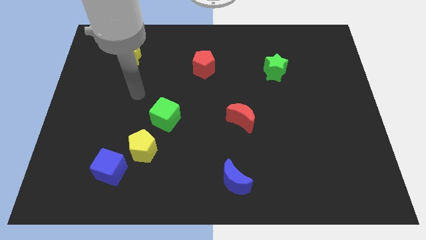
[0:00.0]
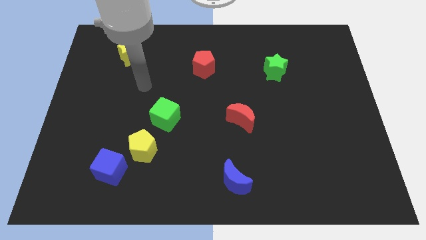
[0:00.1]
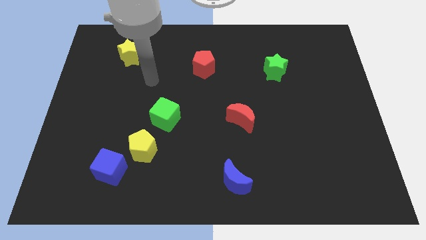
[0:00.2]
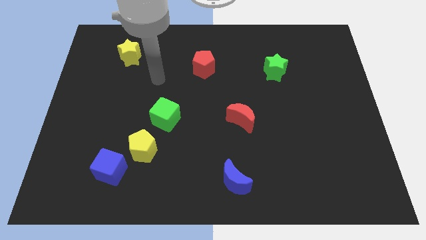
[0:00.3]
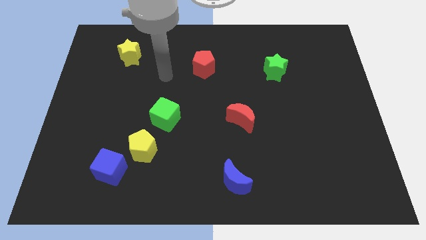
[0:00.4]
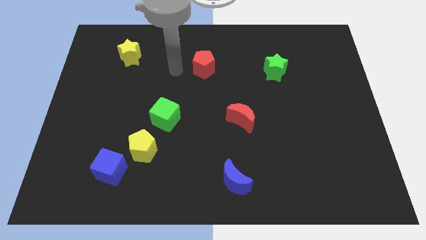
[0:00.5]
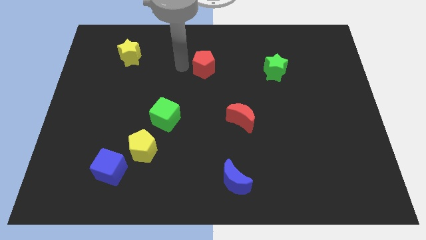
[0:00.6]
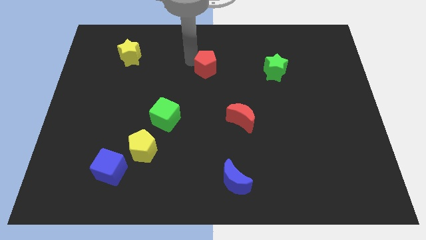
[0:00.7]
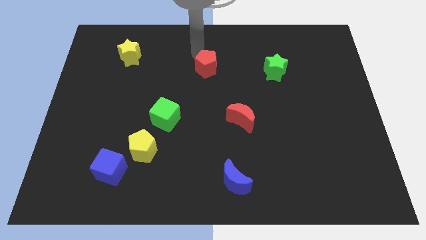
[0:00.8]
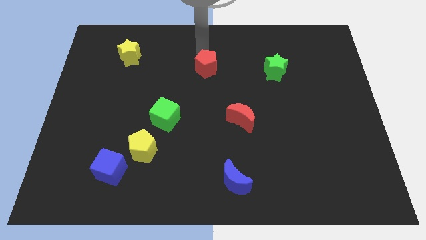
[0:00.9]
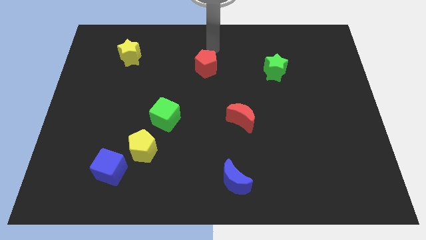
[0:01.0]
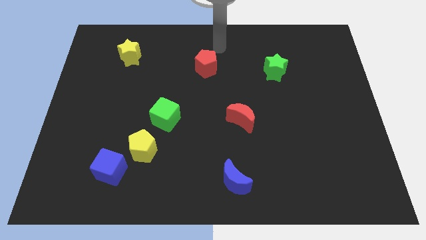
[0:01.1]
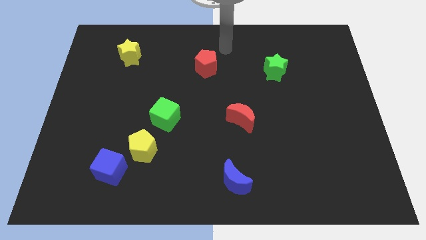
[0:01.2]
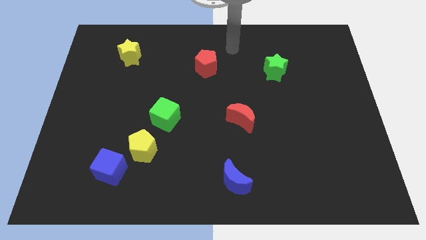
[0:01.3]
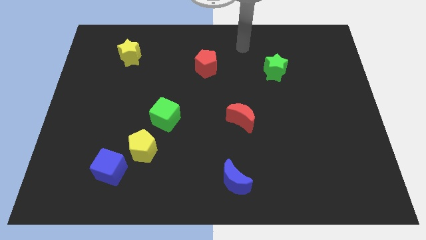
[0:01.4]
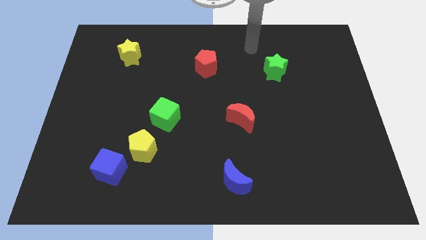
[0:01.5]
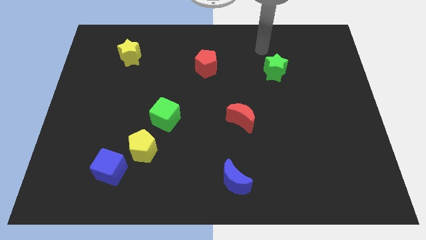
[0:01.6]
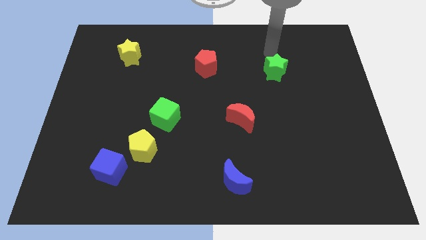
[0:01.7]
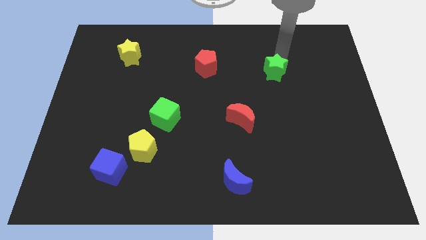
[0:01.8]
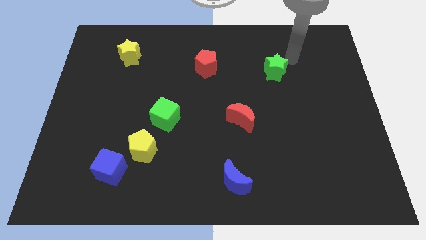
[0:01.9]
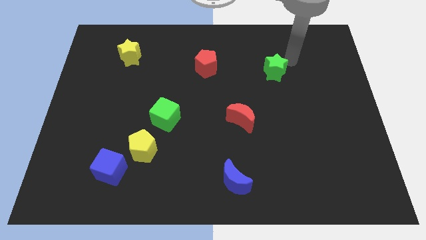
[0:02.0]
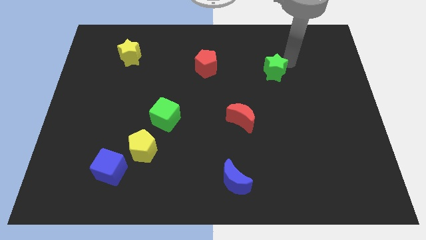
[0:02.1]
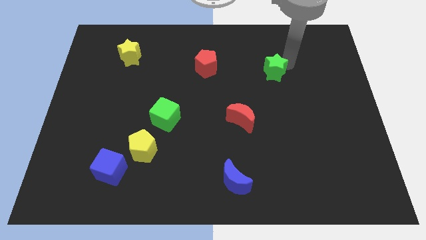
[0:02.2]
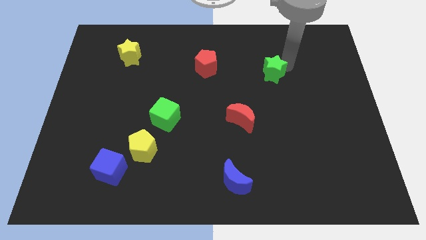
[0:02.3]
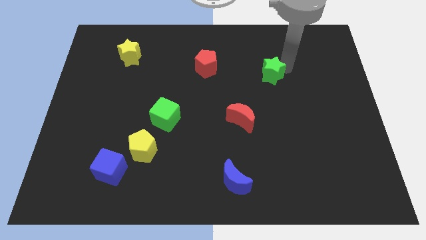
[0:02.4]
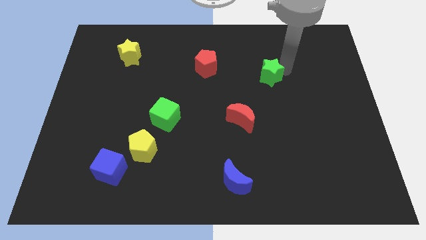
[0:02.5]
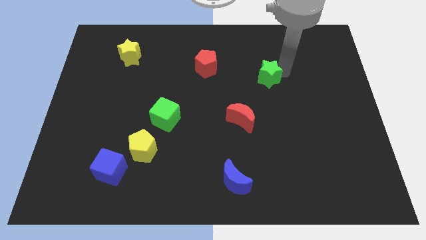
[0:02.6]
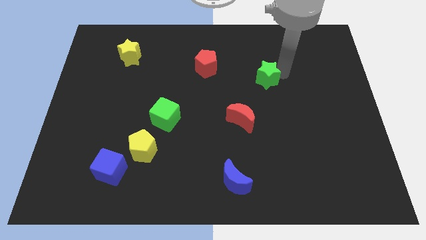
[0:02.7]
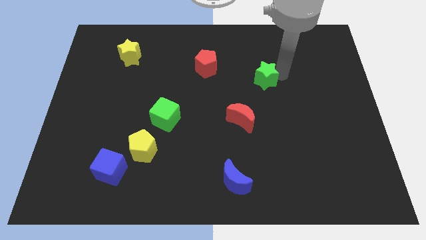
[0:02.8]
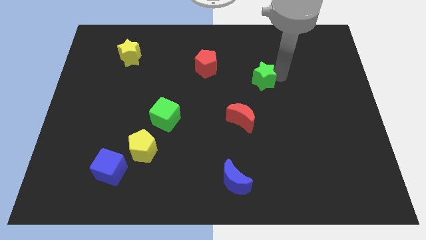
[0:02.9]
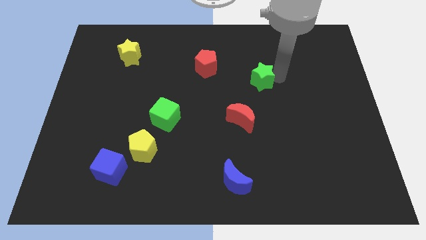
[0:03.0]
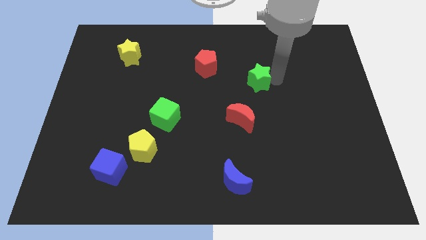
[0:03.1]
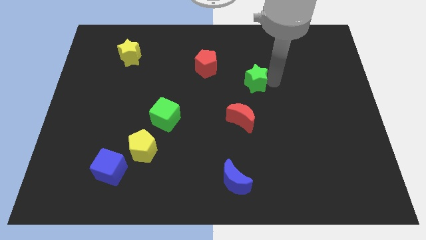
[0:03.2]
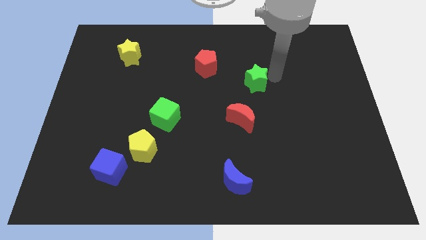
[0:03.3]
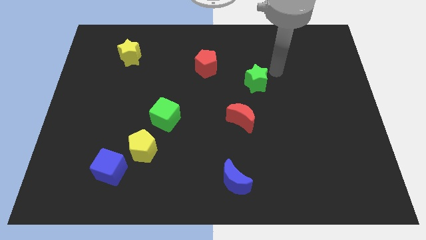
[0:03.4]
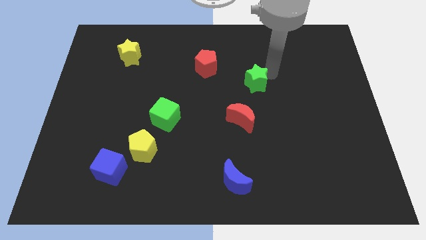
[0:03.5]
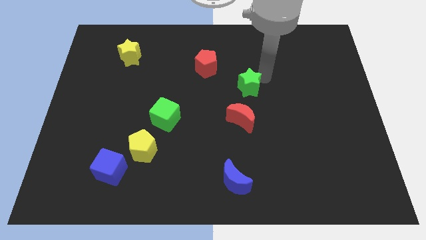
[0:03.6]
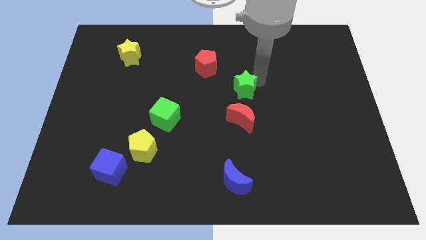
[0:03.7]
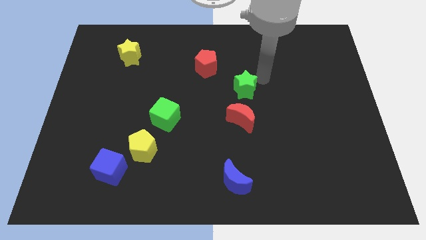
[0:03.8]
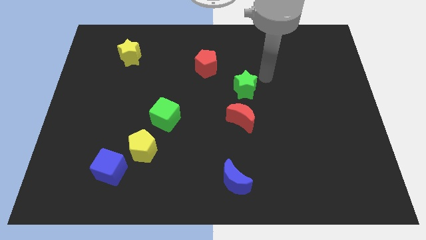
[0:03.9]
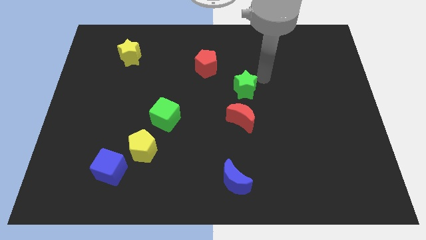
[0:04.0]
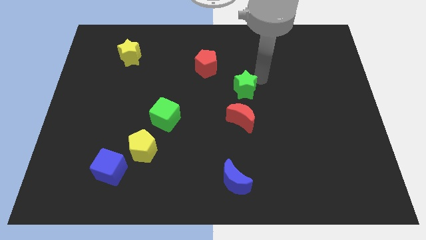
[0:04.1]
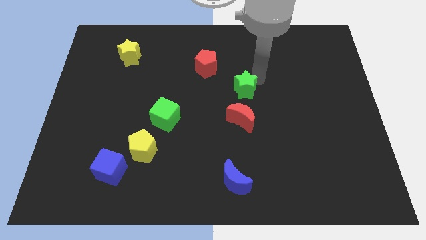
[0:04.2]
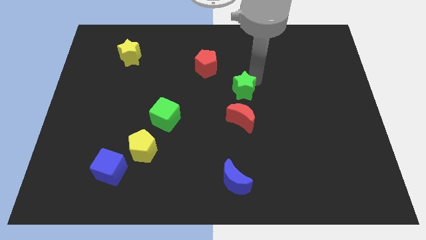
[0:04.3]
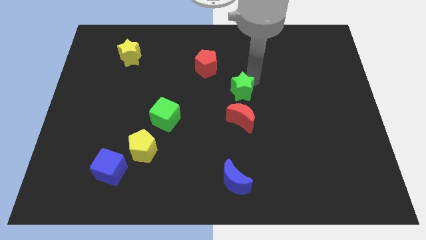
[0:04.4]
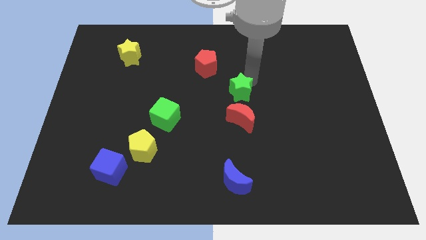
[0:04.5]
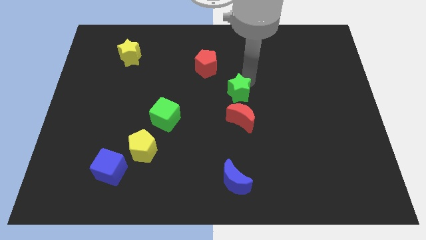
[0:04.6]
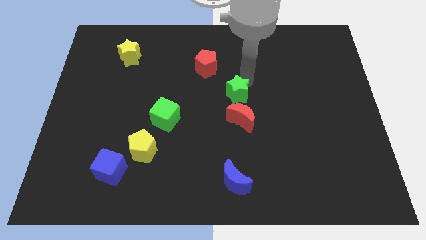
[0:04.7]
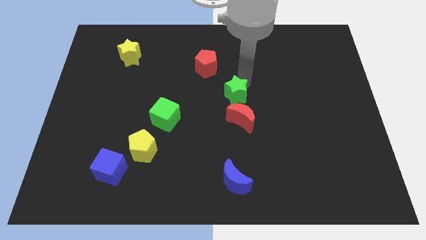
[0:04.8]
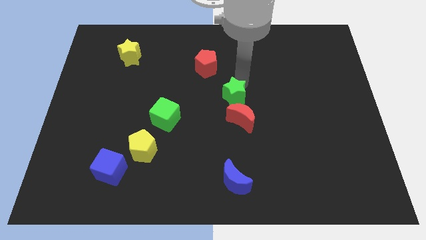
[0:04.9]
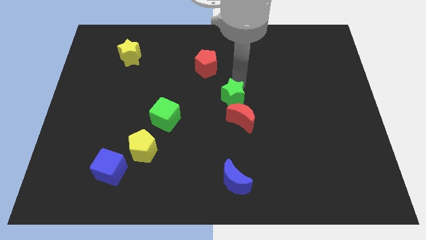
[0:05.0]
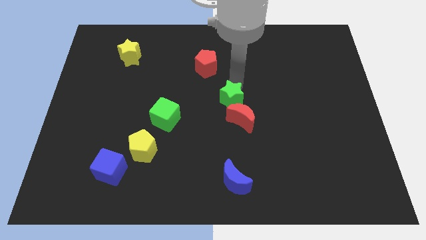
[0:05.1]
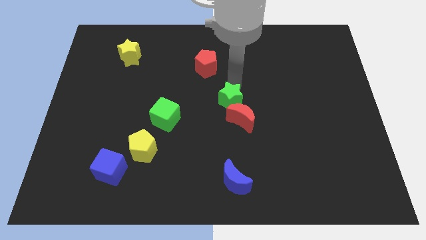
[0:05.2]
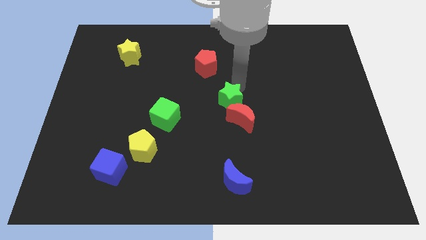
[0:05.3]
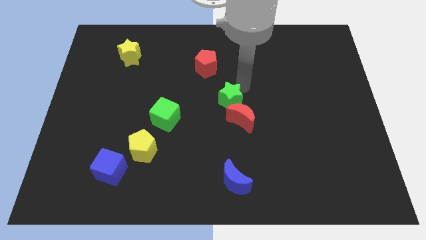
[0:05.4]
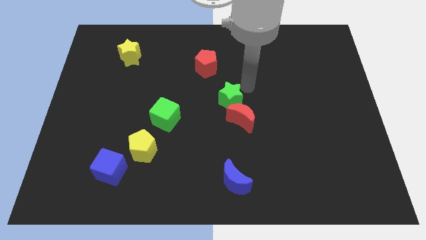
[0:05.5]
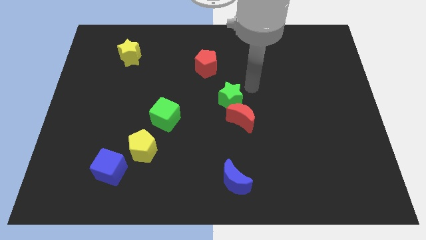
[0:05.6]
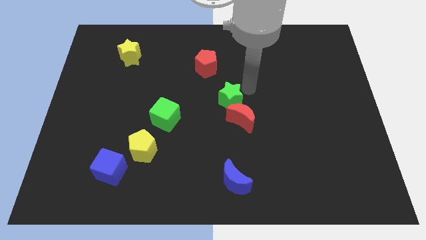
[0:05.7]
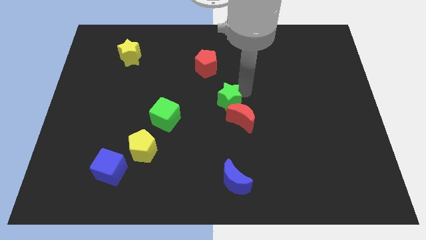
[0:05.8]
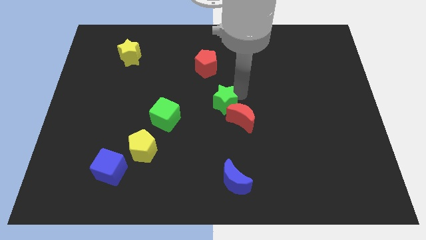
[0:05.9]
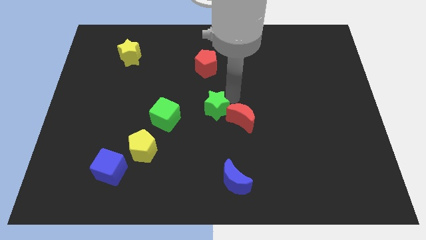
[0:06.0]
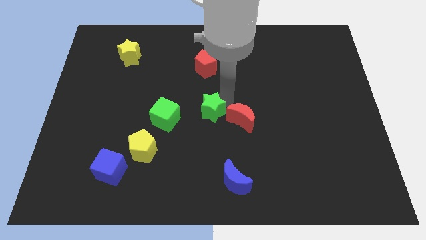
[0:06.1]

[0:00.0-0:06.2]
move the green star downwards and left

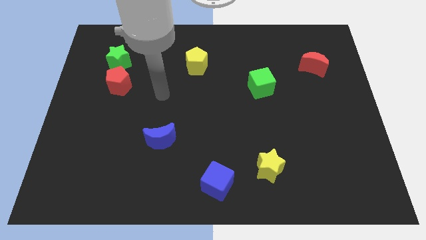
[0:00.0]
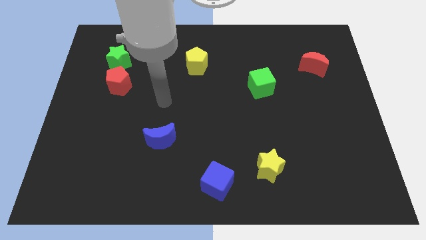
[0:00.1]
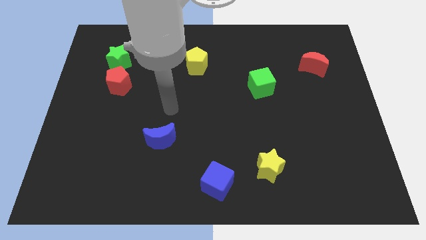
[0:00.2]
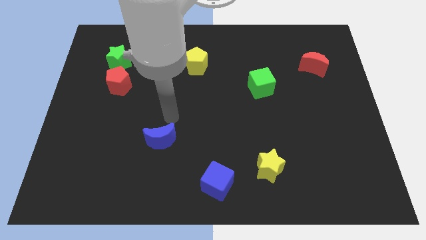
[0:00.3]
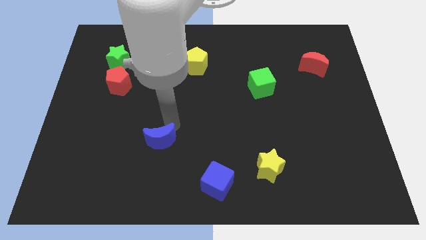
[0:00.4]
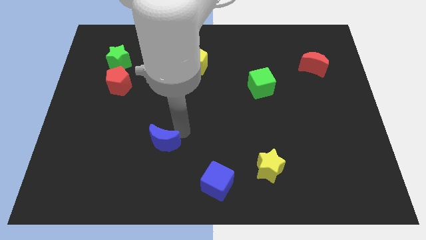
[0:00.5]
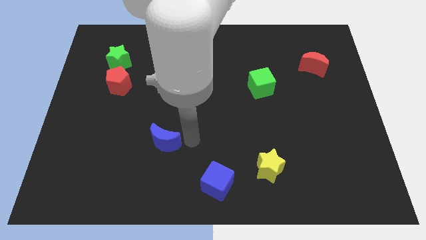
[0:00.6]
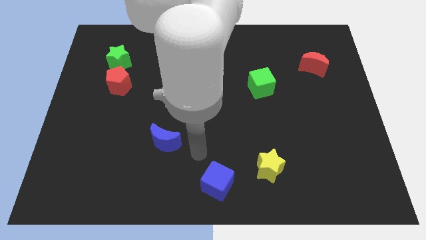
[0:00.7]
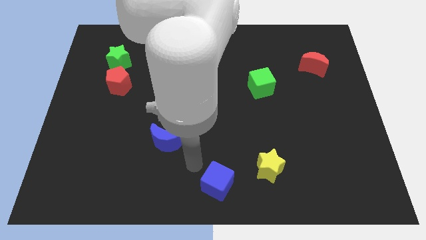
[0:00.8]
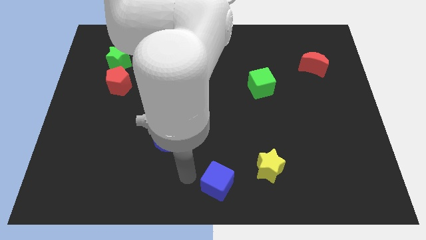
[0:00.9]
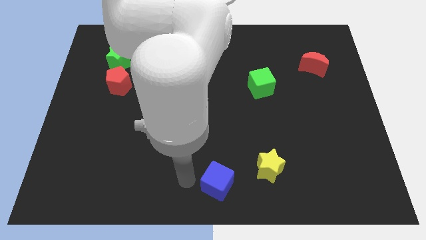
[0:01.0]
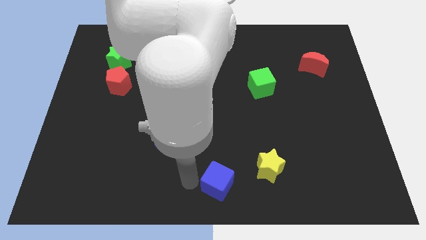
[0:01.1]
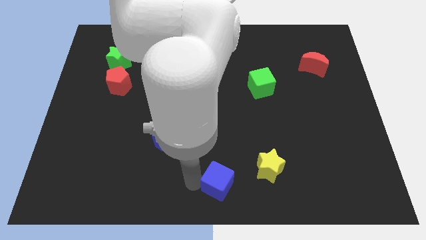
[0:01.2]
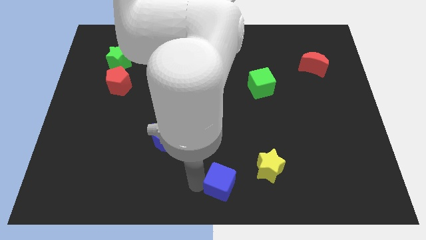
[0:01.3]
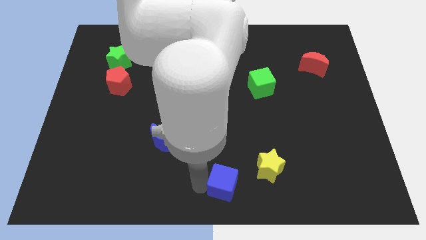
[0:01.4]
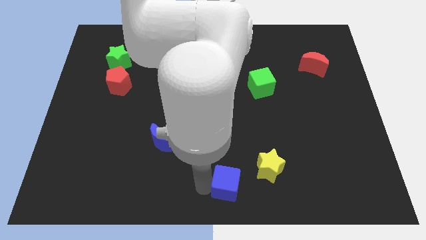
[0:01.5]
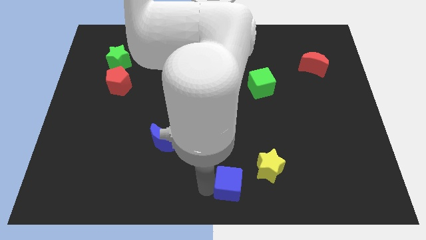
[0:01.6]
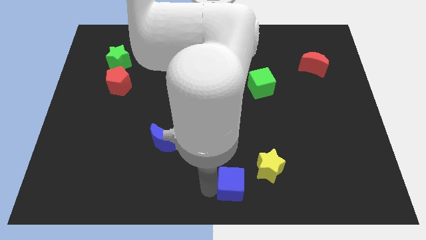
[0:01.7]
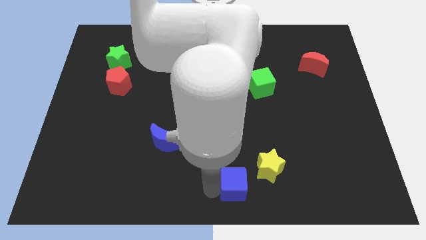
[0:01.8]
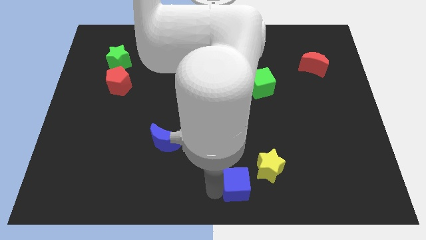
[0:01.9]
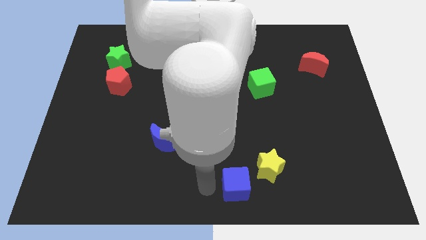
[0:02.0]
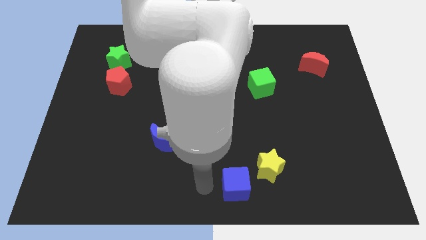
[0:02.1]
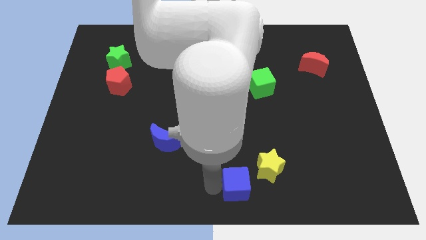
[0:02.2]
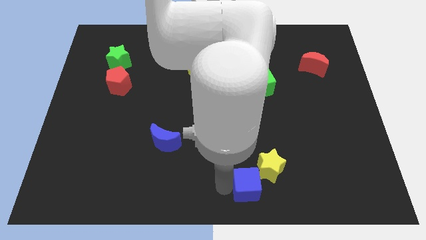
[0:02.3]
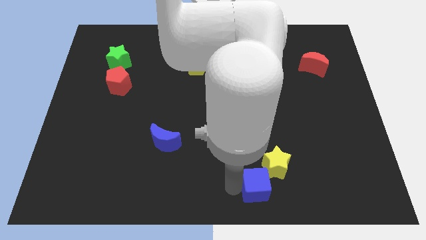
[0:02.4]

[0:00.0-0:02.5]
slide the blue cube slightly to the right
